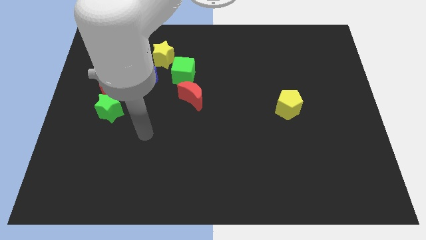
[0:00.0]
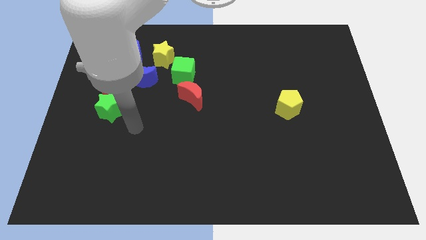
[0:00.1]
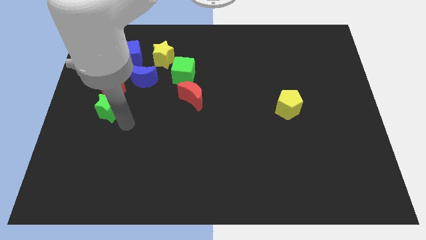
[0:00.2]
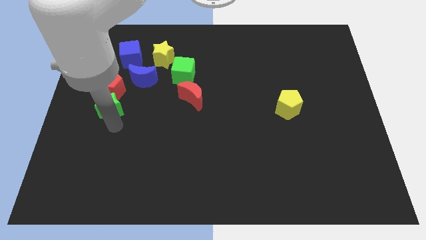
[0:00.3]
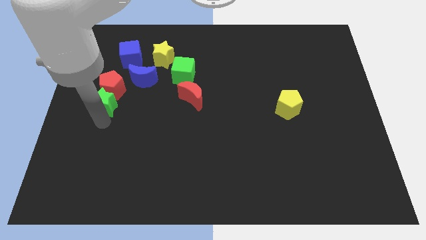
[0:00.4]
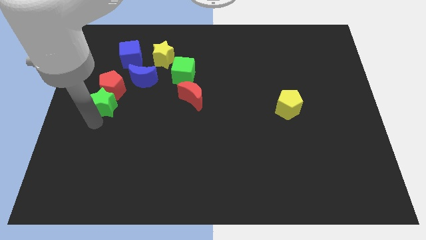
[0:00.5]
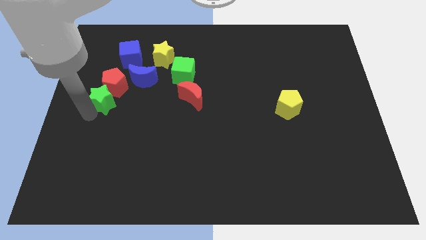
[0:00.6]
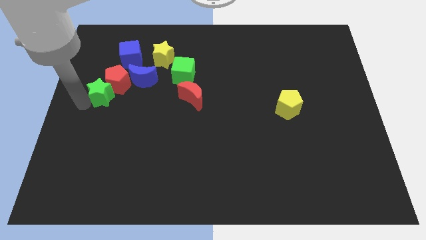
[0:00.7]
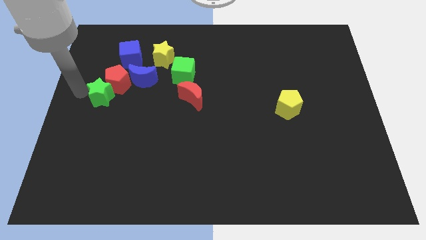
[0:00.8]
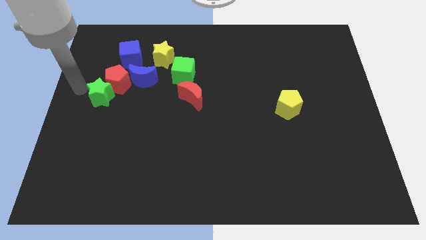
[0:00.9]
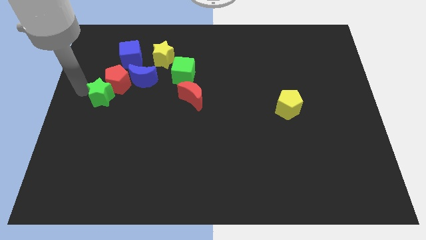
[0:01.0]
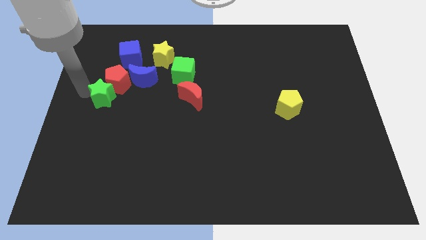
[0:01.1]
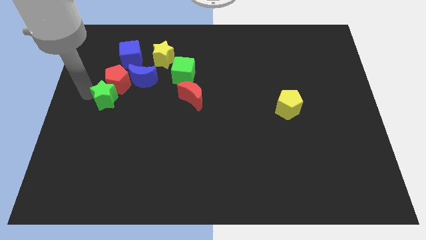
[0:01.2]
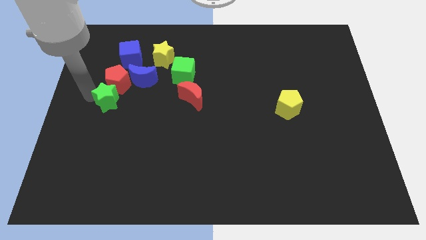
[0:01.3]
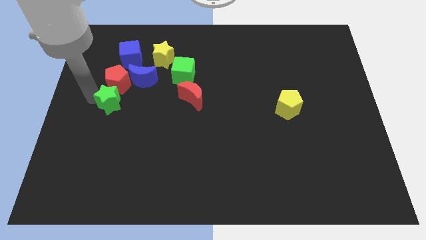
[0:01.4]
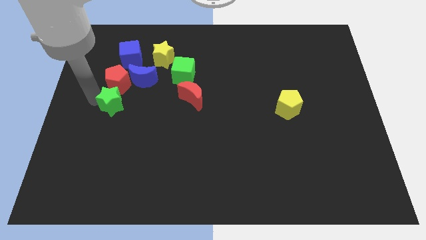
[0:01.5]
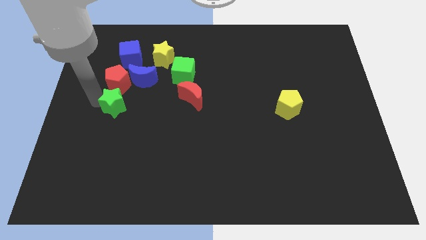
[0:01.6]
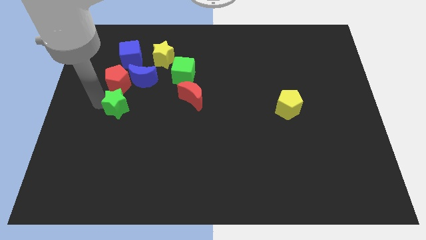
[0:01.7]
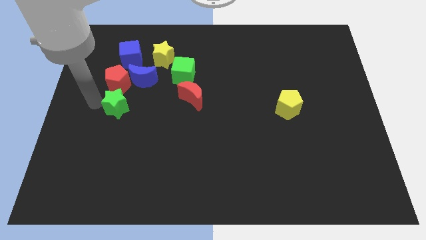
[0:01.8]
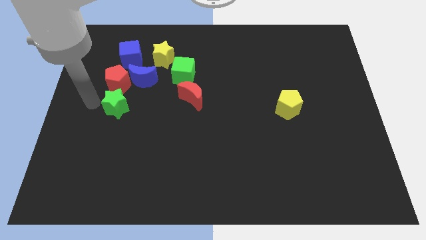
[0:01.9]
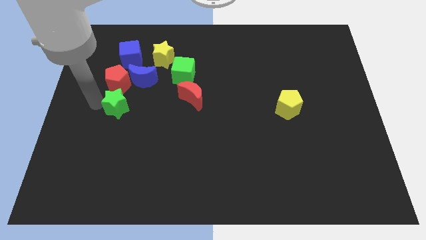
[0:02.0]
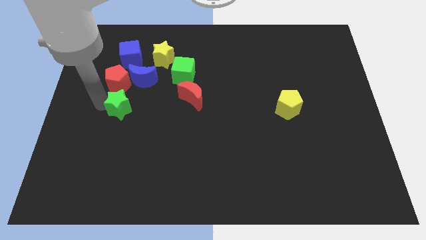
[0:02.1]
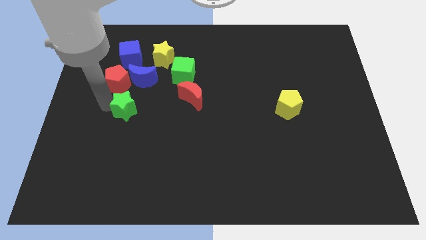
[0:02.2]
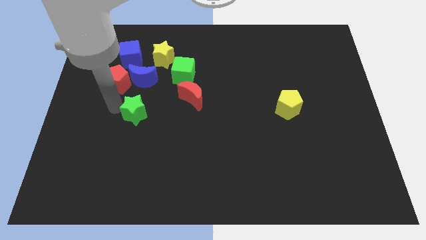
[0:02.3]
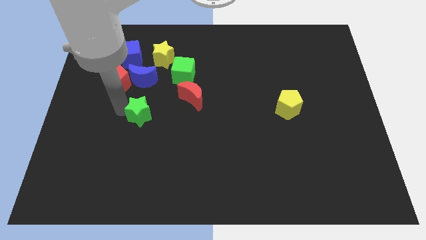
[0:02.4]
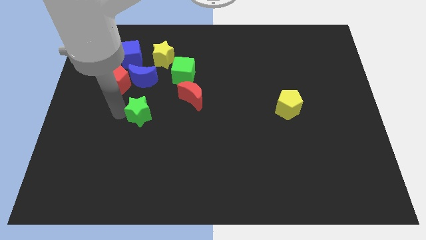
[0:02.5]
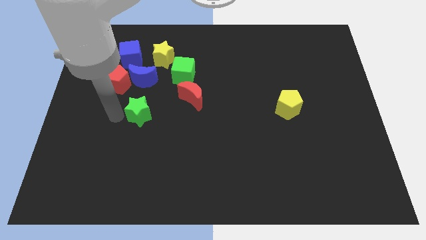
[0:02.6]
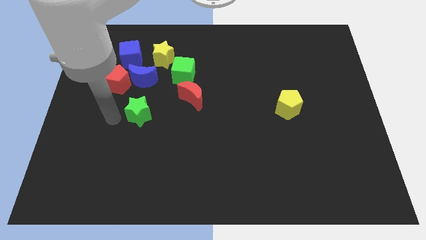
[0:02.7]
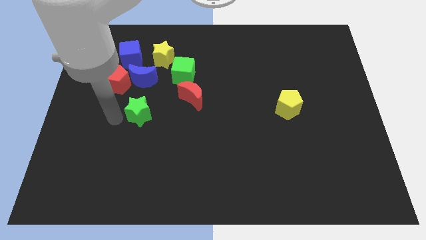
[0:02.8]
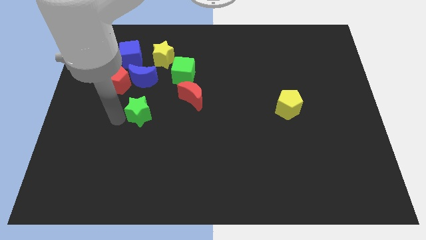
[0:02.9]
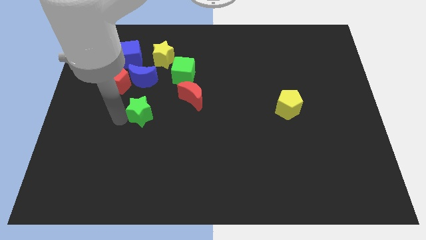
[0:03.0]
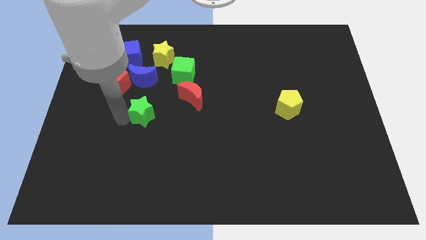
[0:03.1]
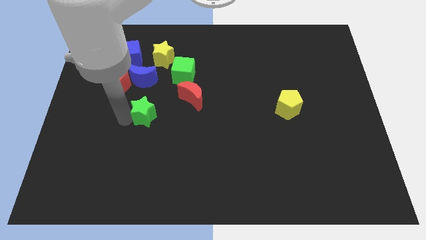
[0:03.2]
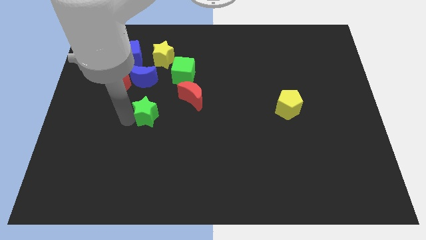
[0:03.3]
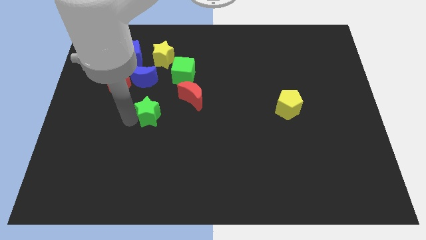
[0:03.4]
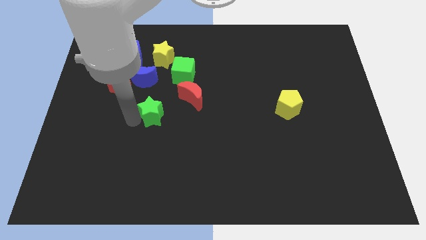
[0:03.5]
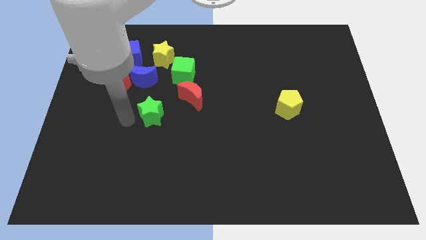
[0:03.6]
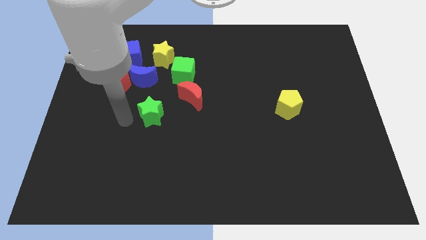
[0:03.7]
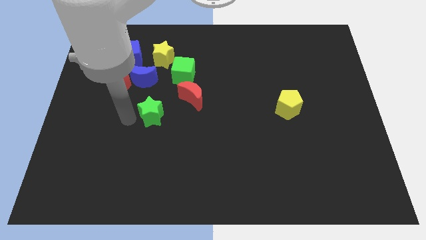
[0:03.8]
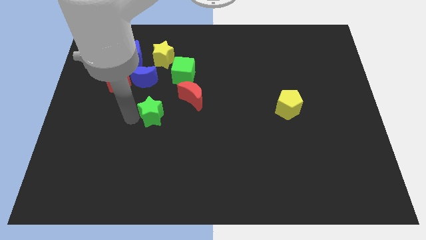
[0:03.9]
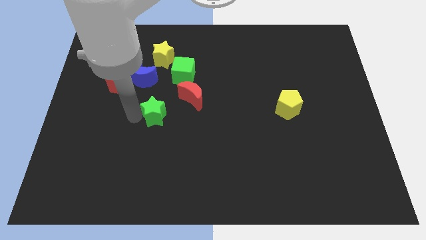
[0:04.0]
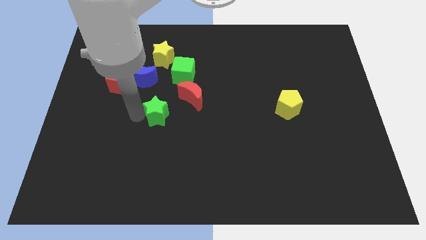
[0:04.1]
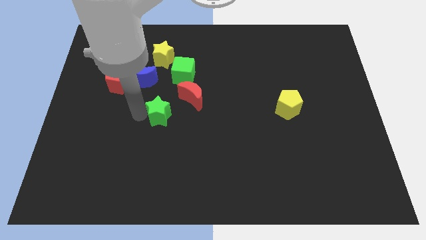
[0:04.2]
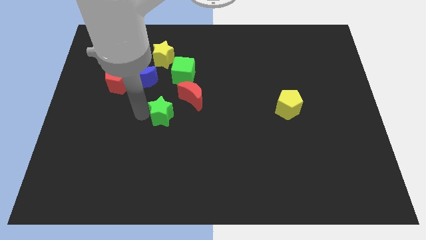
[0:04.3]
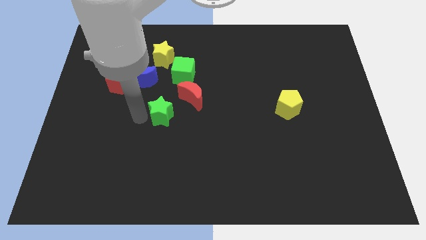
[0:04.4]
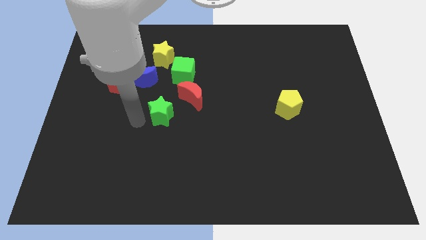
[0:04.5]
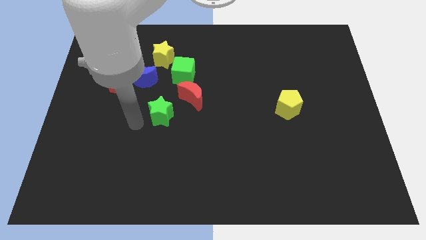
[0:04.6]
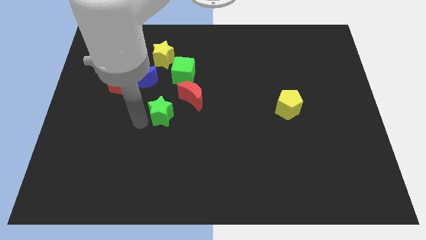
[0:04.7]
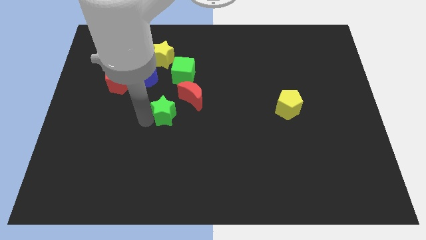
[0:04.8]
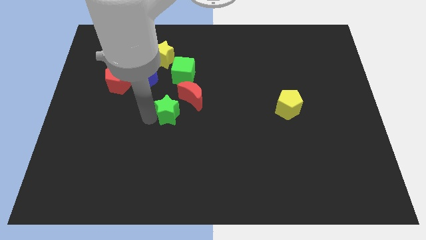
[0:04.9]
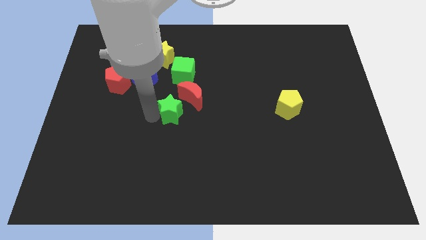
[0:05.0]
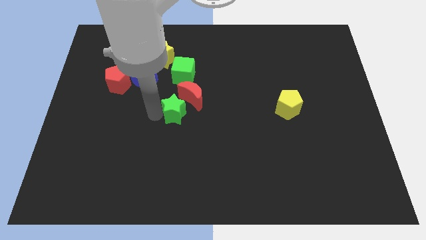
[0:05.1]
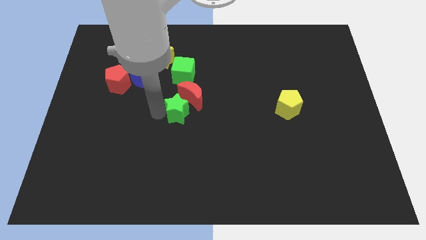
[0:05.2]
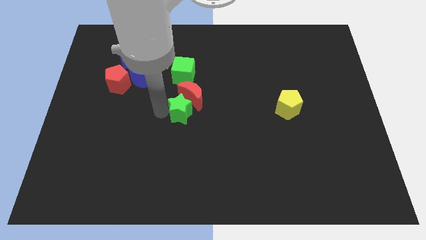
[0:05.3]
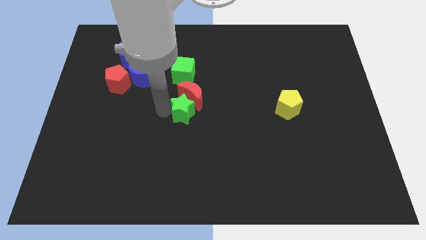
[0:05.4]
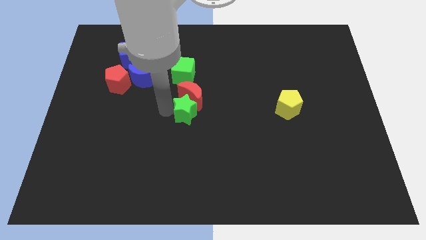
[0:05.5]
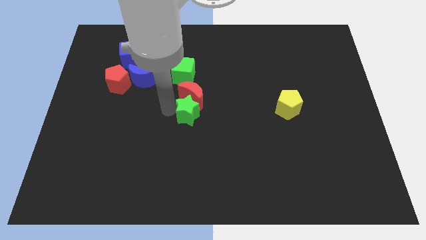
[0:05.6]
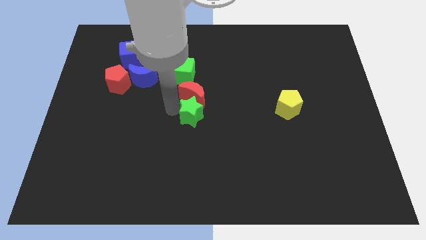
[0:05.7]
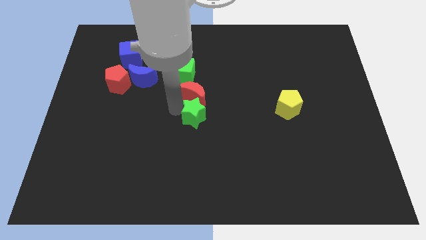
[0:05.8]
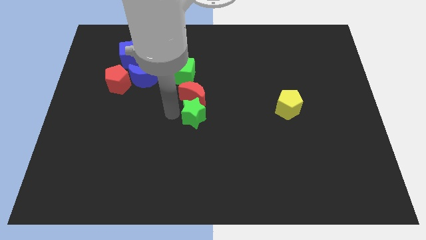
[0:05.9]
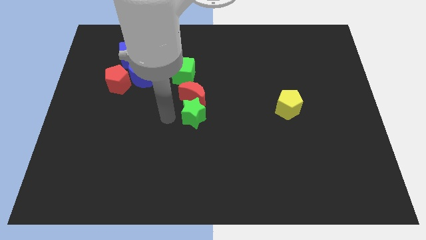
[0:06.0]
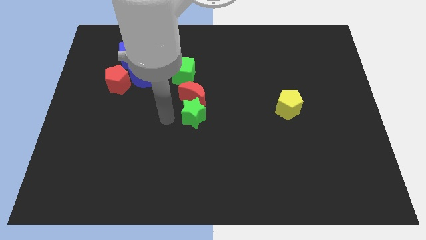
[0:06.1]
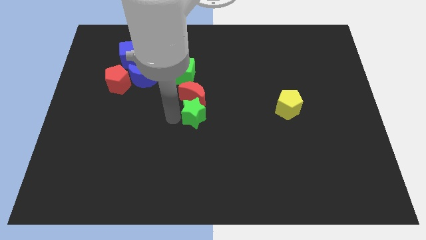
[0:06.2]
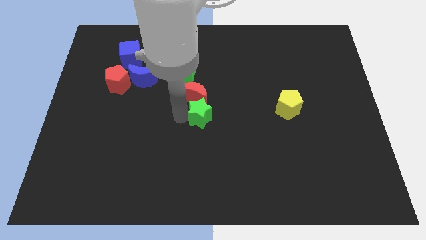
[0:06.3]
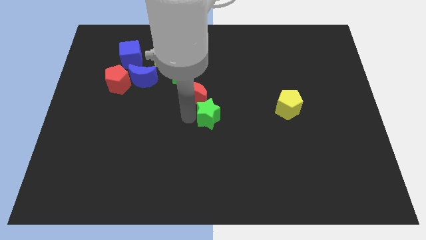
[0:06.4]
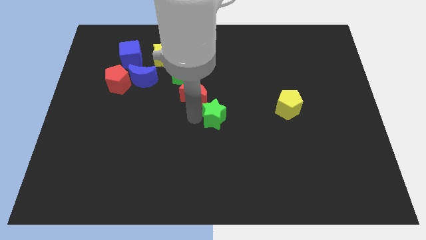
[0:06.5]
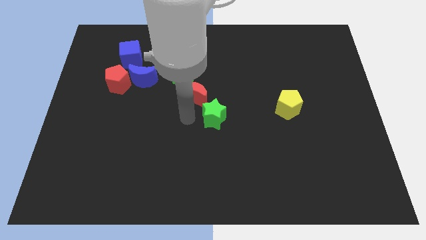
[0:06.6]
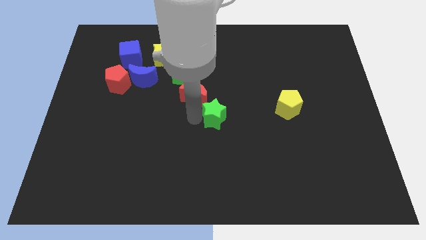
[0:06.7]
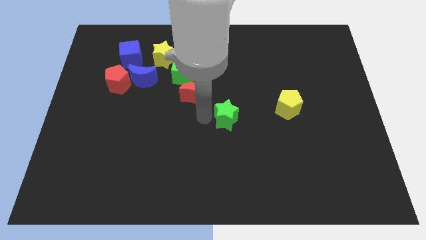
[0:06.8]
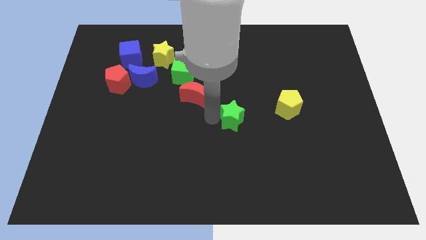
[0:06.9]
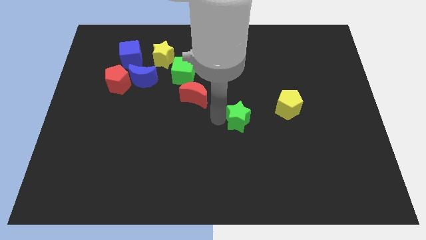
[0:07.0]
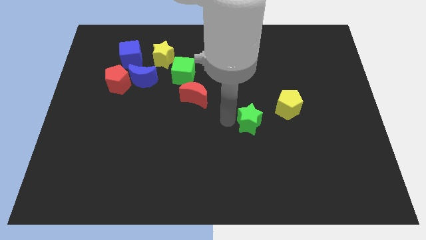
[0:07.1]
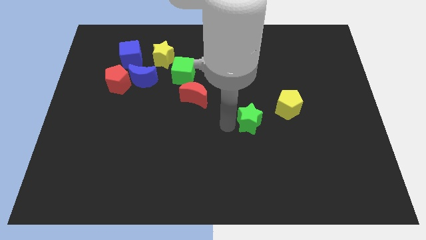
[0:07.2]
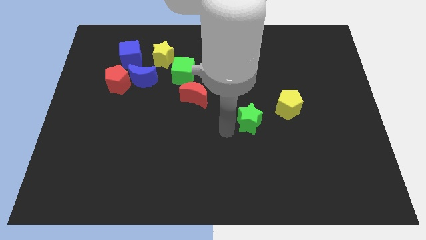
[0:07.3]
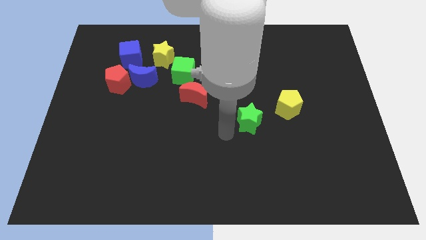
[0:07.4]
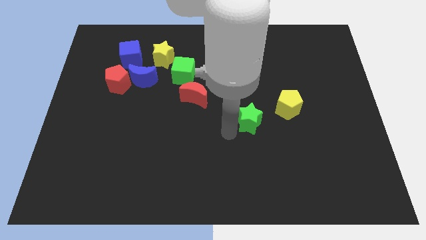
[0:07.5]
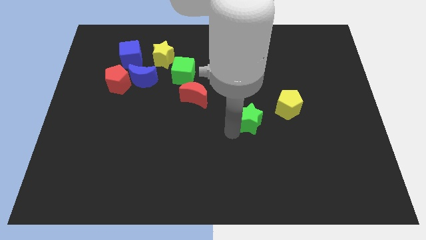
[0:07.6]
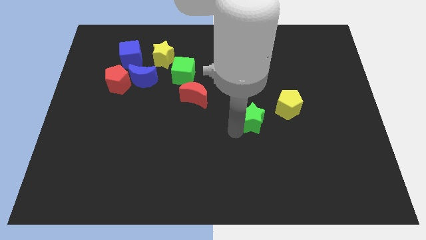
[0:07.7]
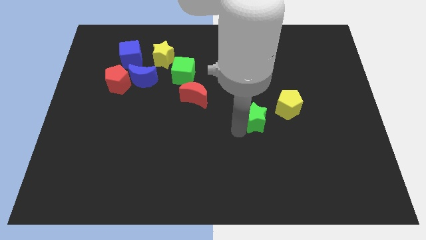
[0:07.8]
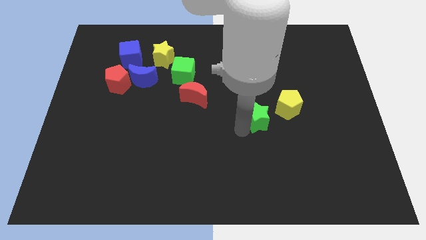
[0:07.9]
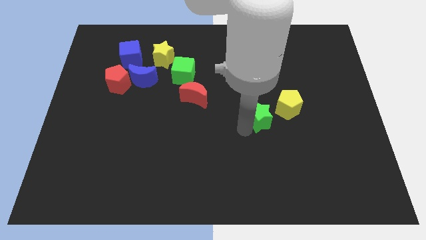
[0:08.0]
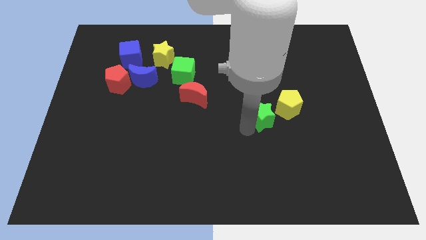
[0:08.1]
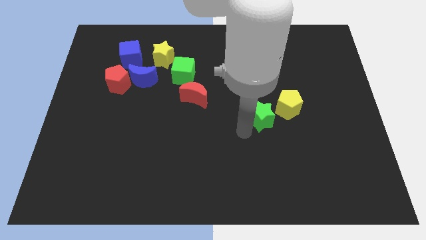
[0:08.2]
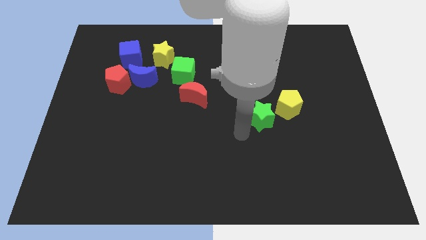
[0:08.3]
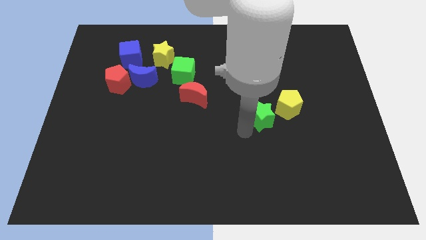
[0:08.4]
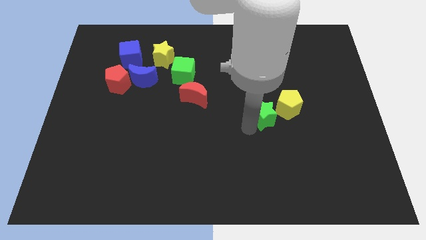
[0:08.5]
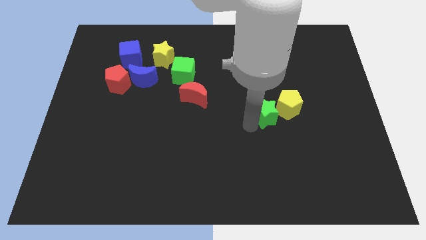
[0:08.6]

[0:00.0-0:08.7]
push the green star to the yellow pentagon
